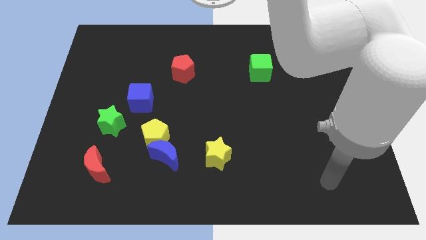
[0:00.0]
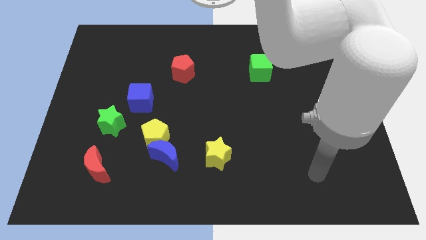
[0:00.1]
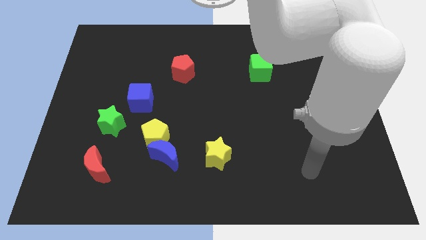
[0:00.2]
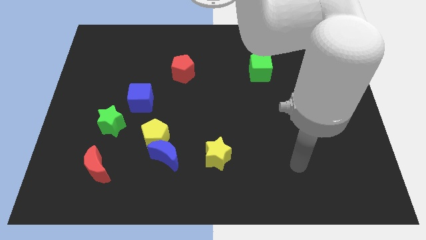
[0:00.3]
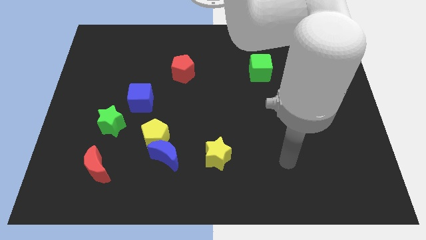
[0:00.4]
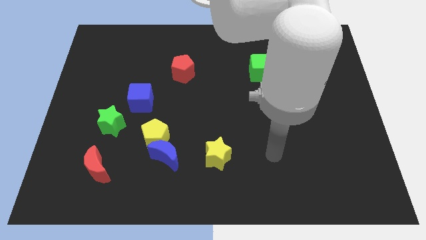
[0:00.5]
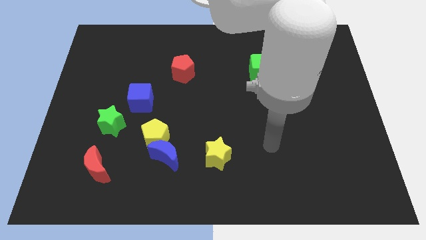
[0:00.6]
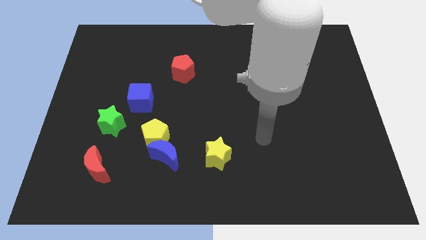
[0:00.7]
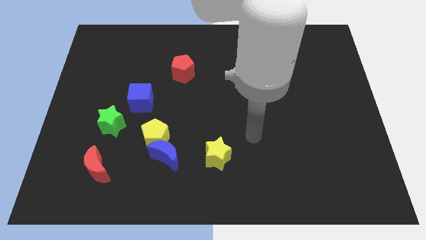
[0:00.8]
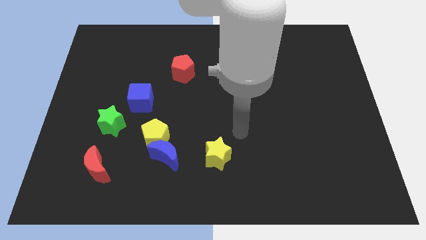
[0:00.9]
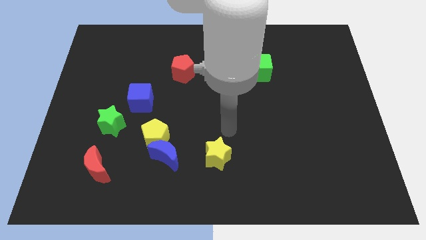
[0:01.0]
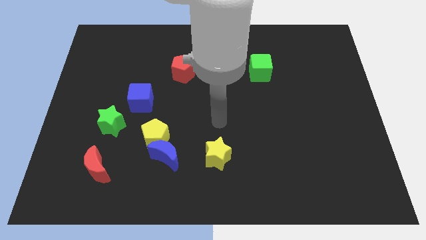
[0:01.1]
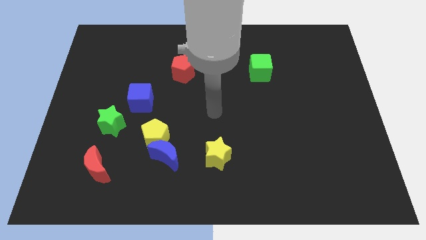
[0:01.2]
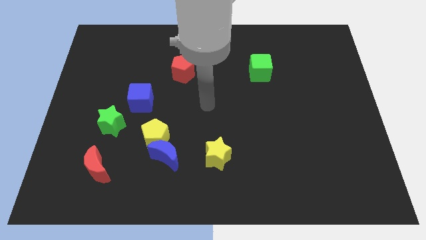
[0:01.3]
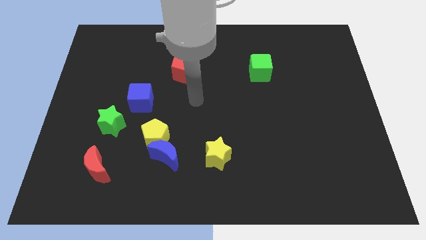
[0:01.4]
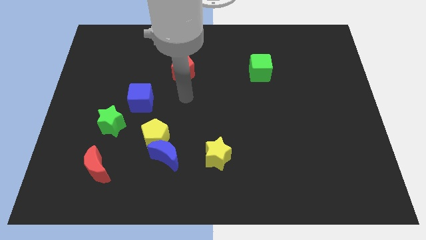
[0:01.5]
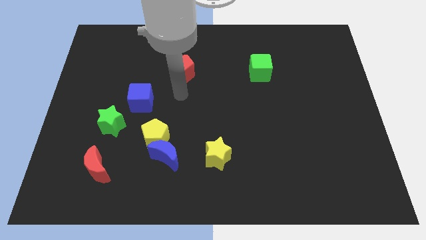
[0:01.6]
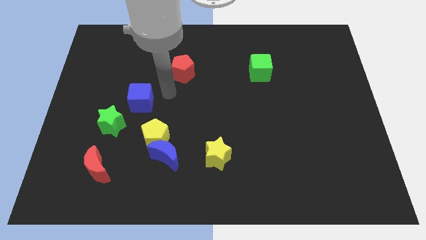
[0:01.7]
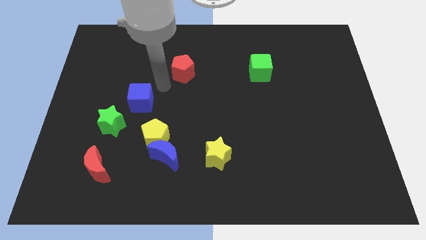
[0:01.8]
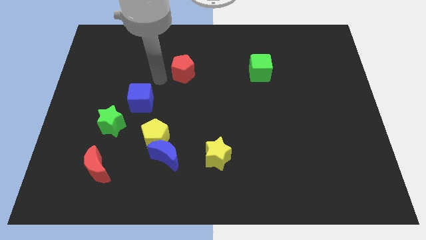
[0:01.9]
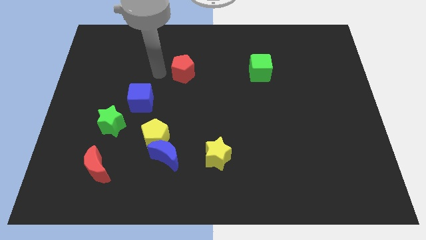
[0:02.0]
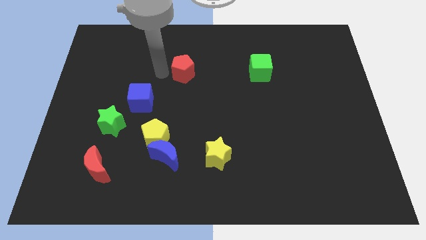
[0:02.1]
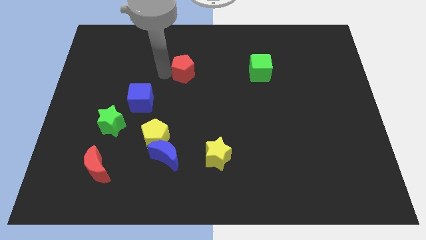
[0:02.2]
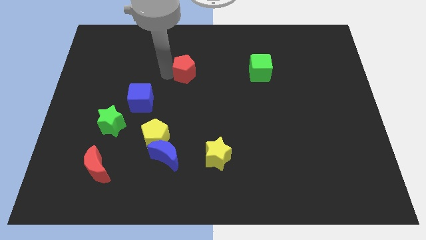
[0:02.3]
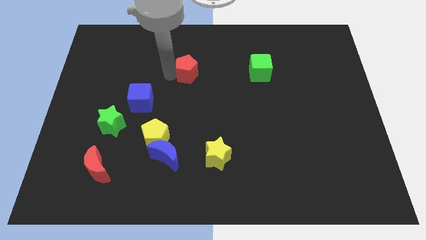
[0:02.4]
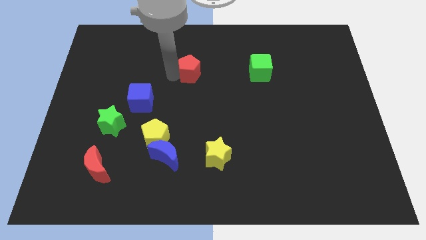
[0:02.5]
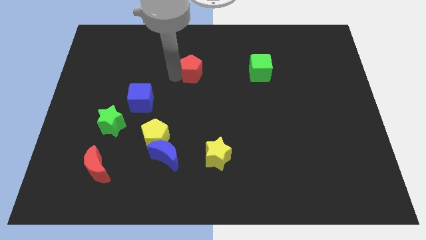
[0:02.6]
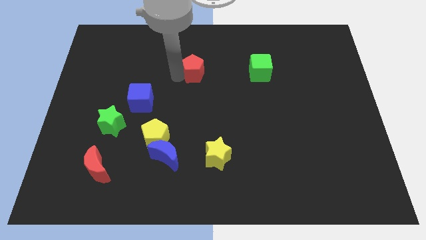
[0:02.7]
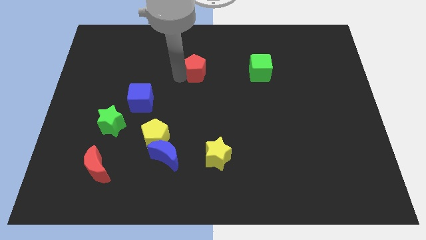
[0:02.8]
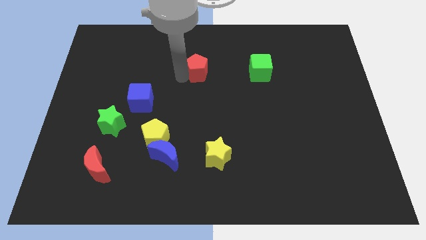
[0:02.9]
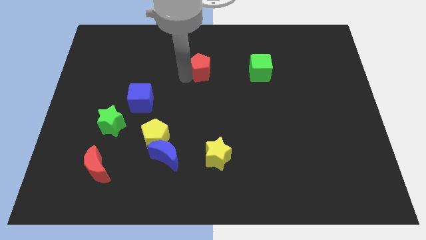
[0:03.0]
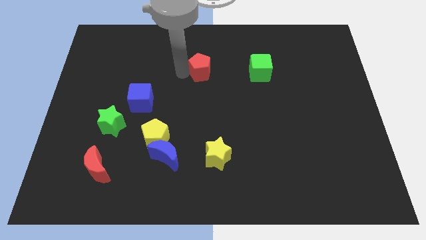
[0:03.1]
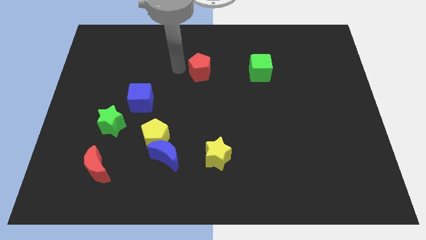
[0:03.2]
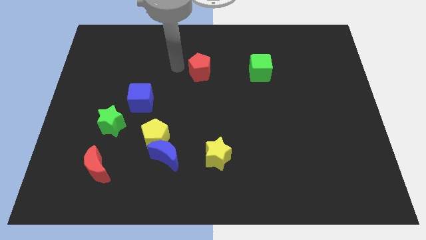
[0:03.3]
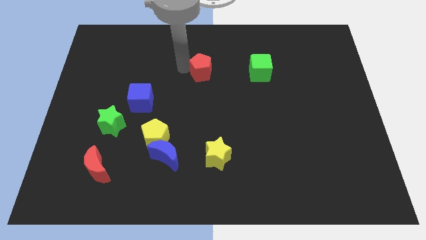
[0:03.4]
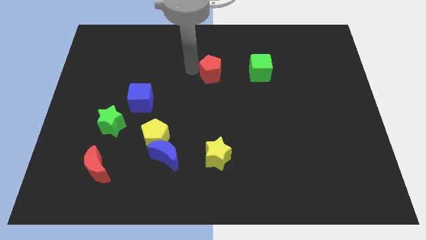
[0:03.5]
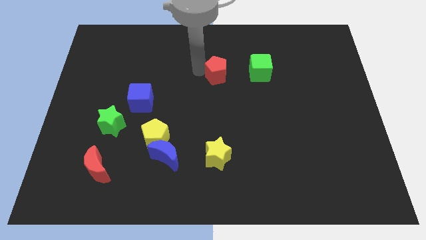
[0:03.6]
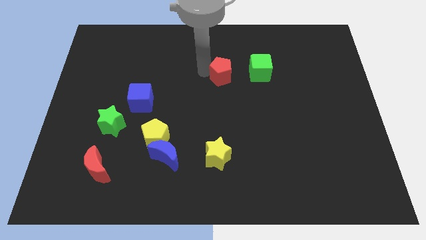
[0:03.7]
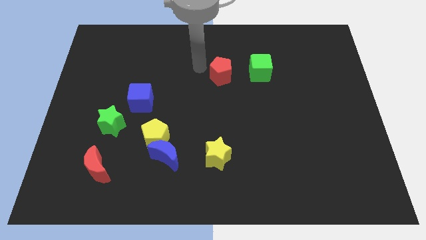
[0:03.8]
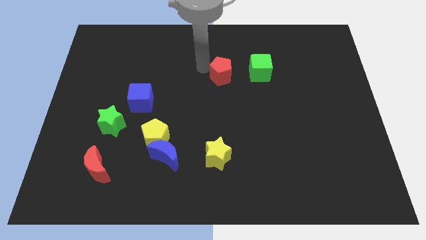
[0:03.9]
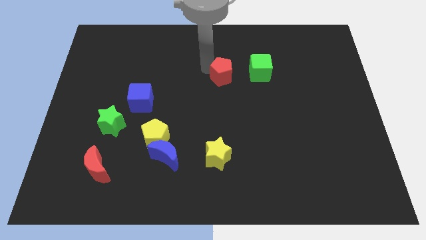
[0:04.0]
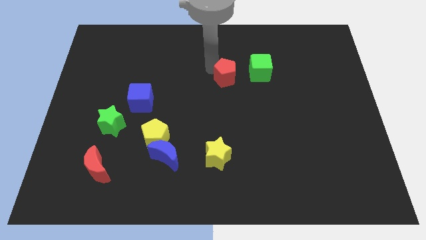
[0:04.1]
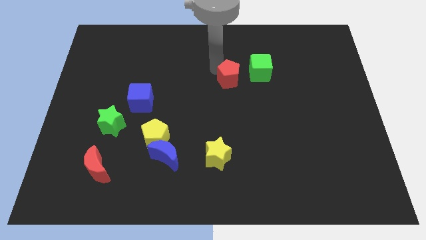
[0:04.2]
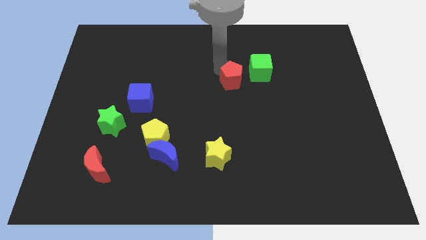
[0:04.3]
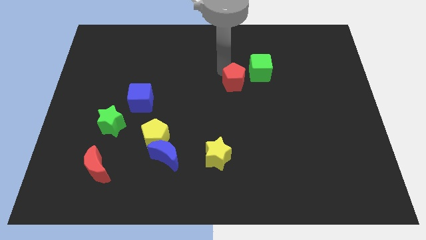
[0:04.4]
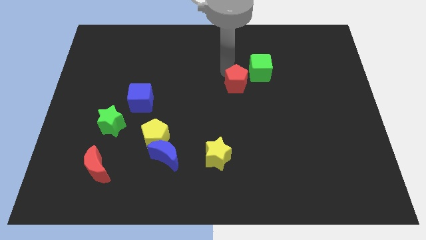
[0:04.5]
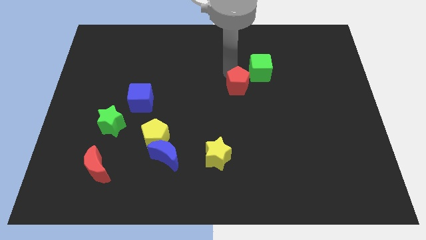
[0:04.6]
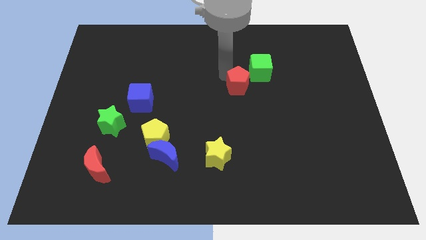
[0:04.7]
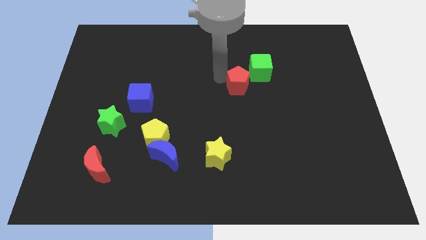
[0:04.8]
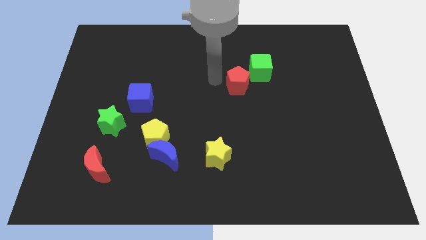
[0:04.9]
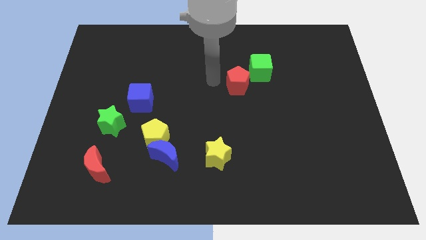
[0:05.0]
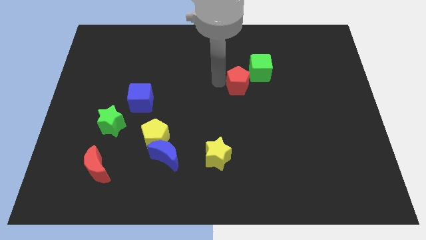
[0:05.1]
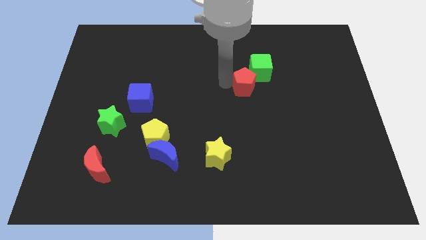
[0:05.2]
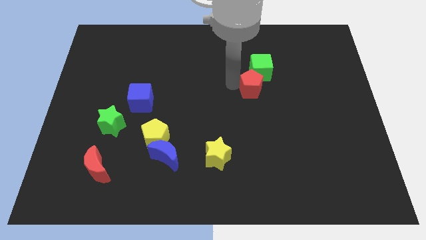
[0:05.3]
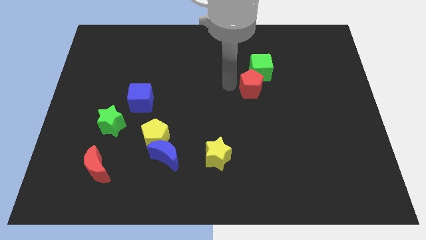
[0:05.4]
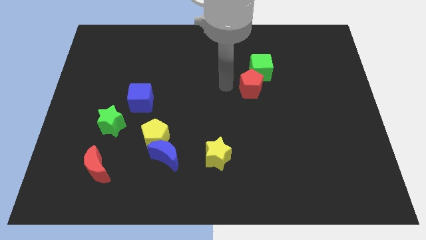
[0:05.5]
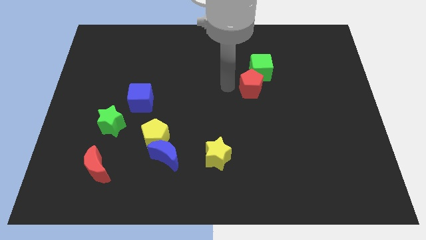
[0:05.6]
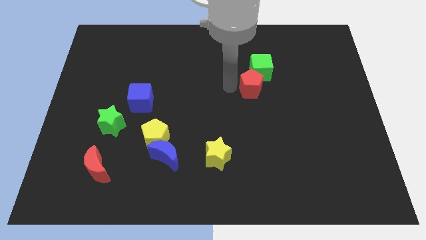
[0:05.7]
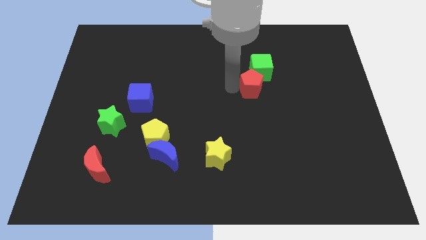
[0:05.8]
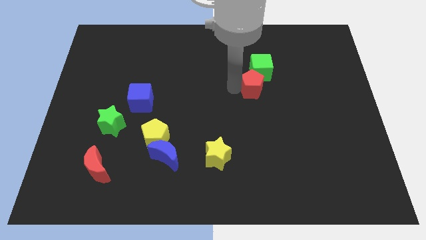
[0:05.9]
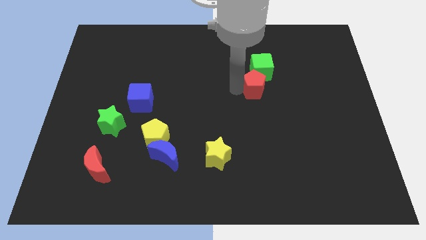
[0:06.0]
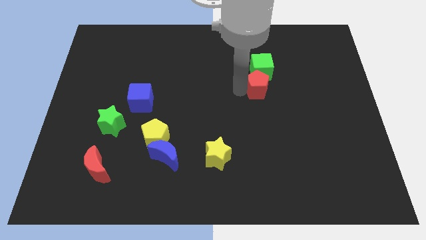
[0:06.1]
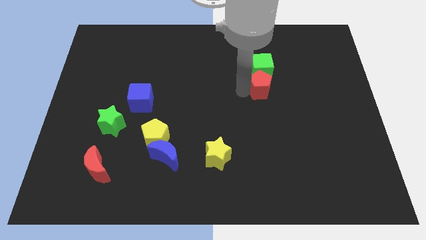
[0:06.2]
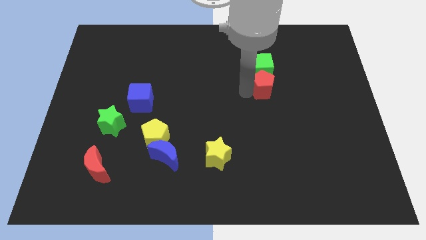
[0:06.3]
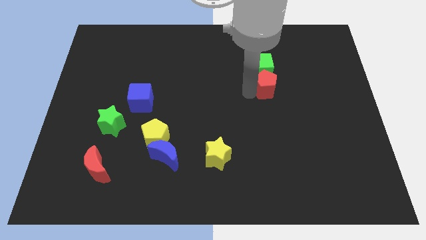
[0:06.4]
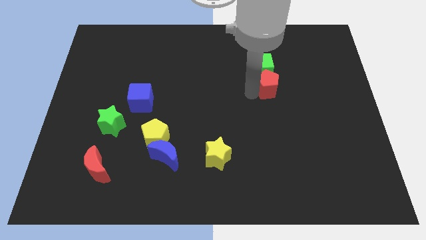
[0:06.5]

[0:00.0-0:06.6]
slide the red pentagon to the right

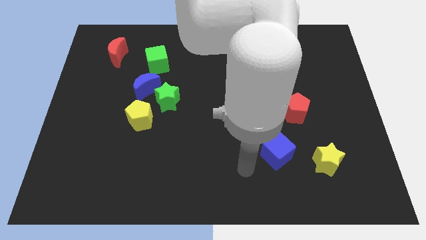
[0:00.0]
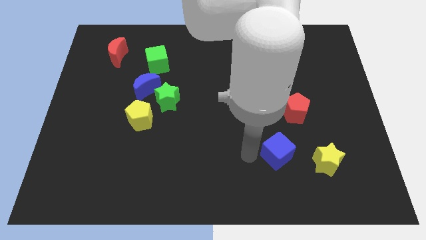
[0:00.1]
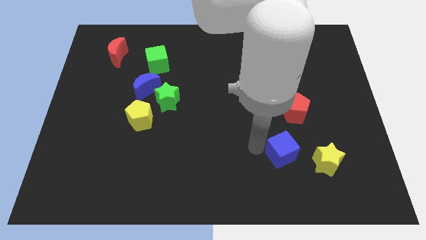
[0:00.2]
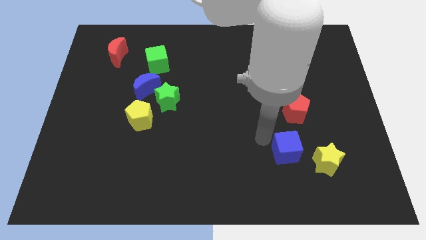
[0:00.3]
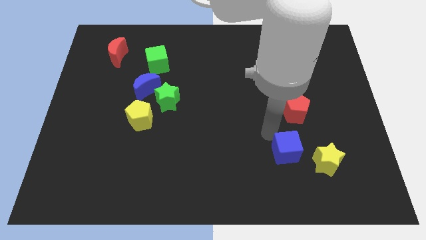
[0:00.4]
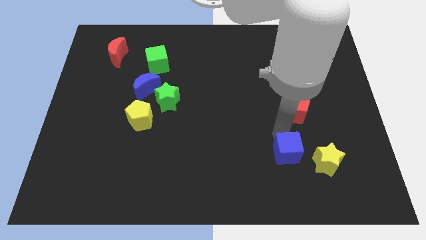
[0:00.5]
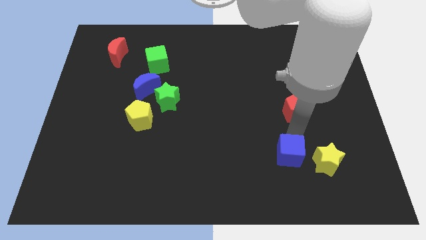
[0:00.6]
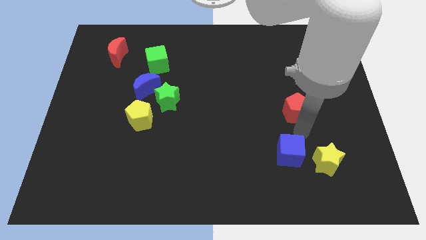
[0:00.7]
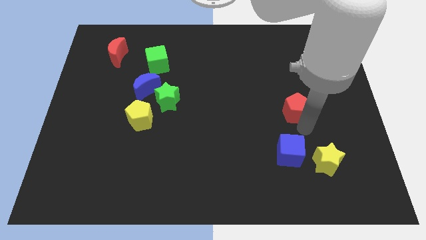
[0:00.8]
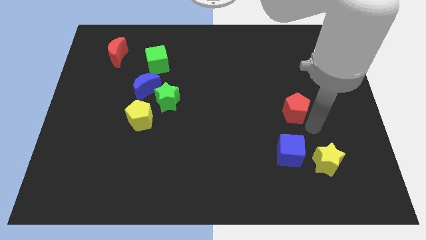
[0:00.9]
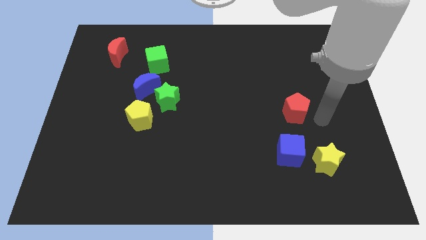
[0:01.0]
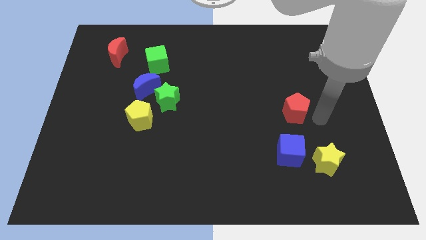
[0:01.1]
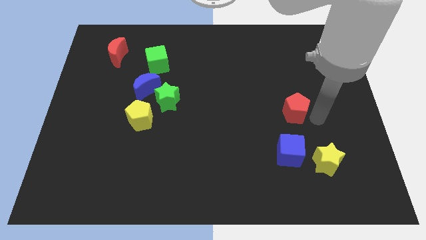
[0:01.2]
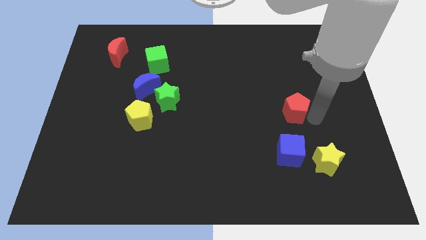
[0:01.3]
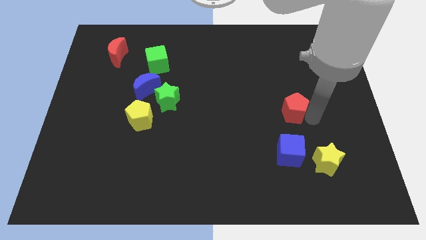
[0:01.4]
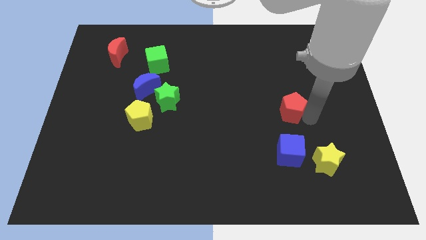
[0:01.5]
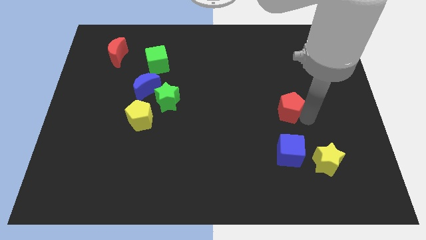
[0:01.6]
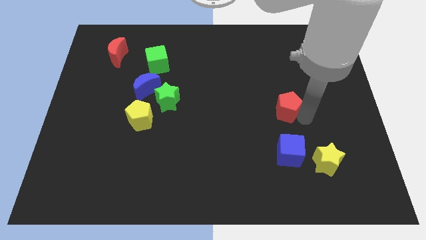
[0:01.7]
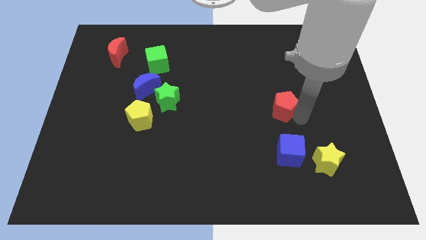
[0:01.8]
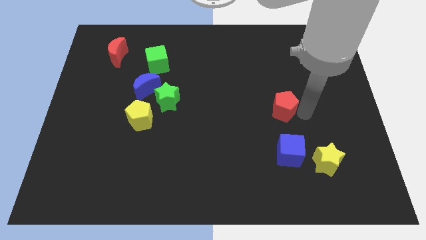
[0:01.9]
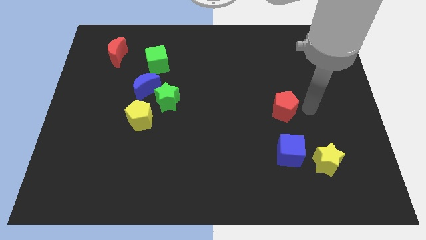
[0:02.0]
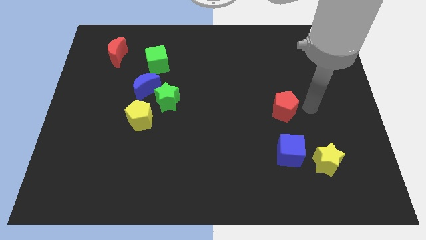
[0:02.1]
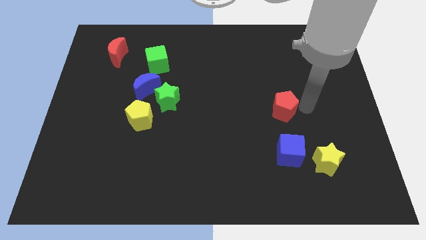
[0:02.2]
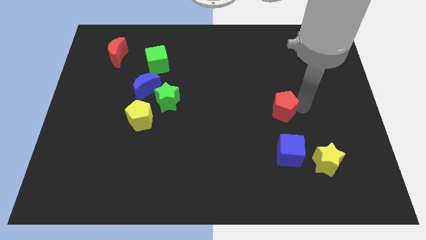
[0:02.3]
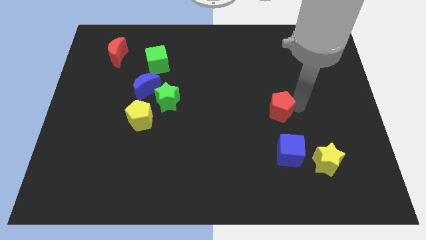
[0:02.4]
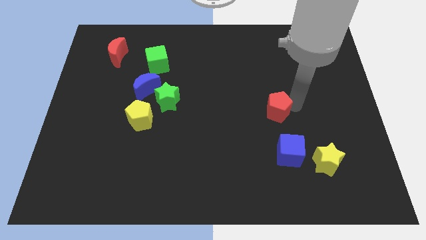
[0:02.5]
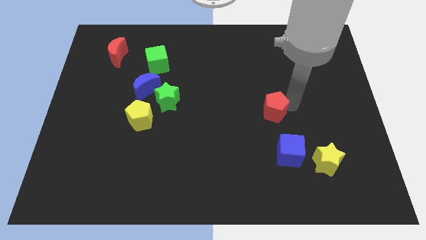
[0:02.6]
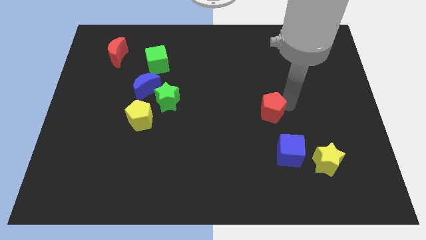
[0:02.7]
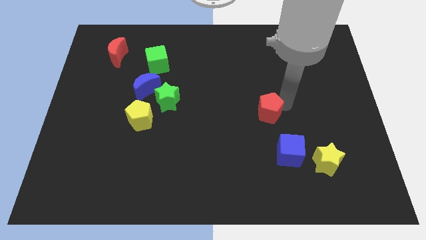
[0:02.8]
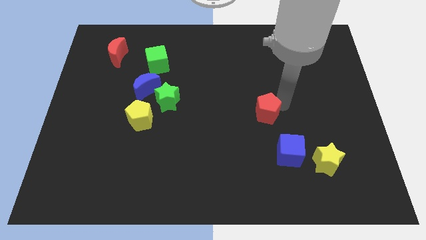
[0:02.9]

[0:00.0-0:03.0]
slightly push the red pentagon left
